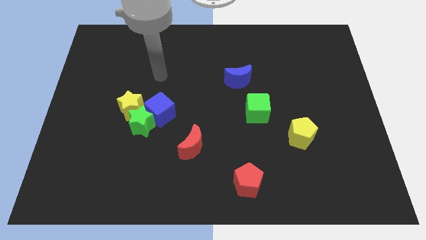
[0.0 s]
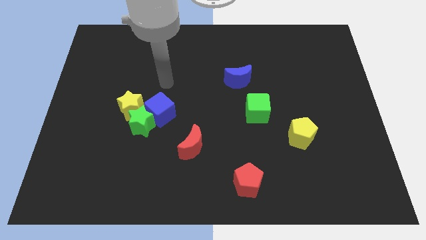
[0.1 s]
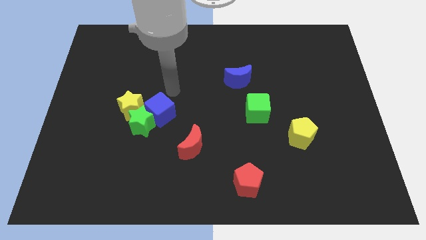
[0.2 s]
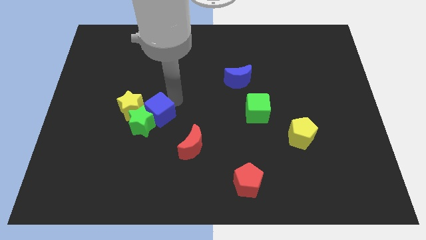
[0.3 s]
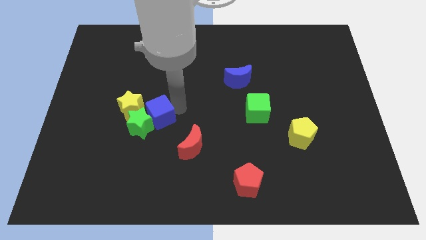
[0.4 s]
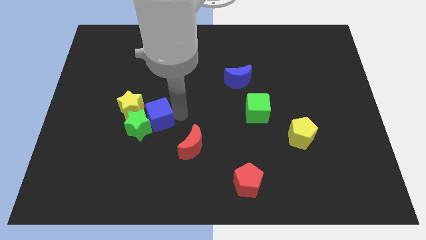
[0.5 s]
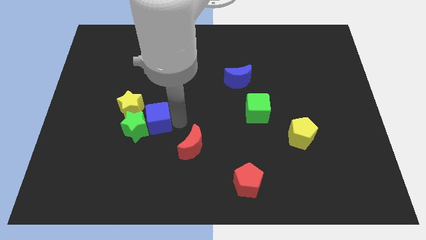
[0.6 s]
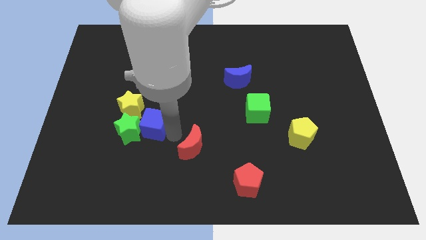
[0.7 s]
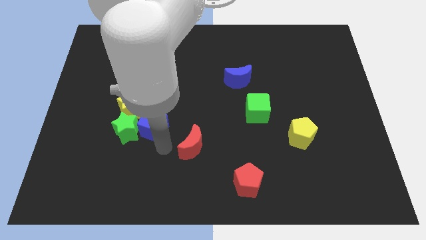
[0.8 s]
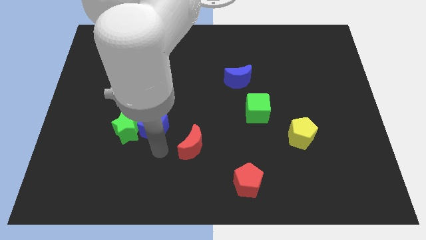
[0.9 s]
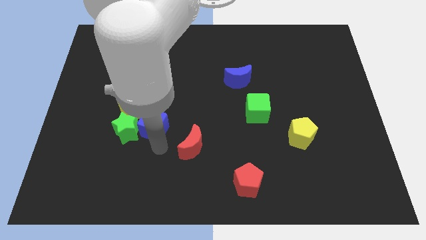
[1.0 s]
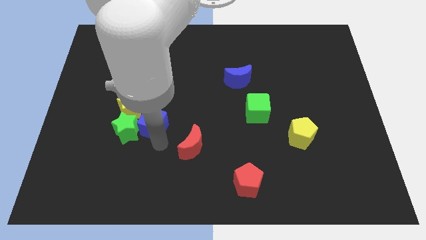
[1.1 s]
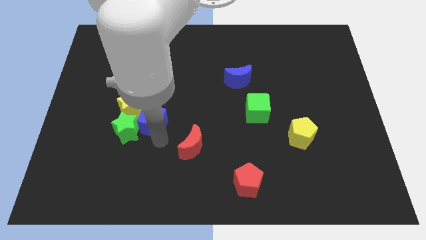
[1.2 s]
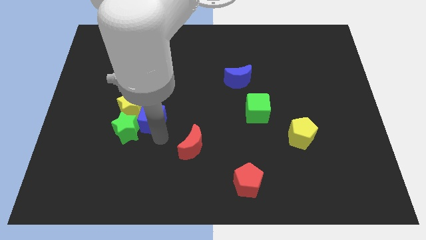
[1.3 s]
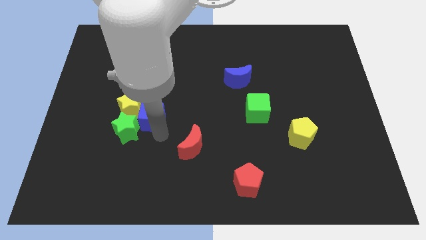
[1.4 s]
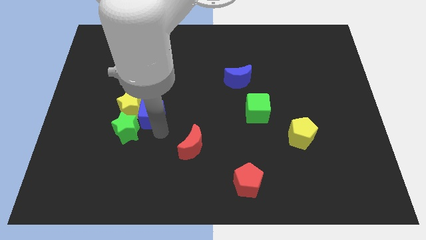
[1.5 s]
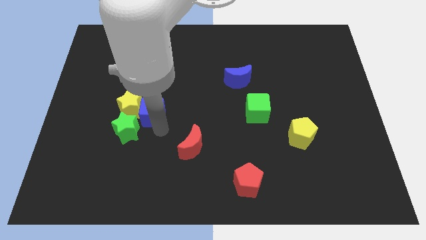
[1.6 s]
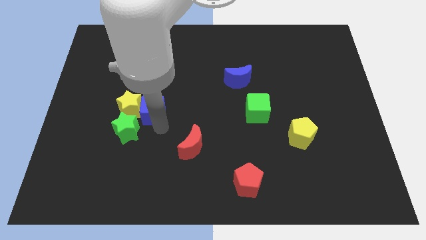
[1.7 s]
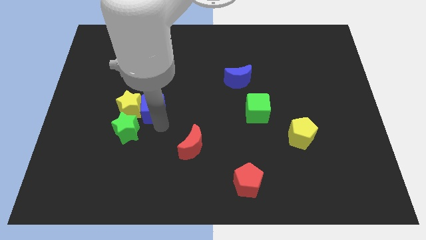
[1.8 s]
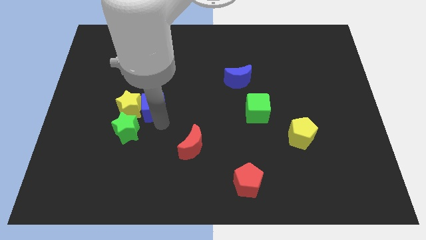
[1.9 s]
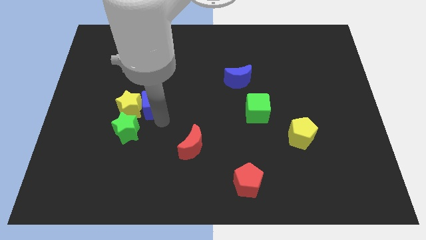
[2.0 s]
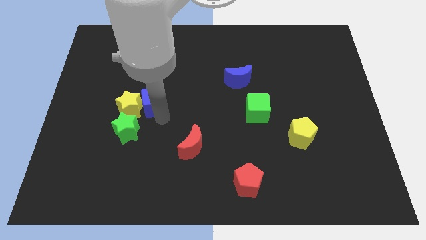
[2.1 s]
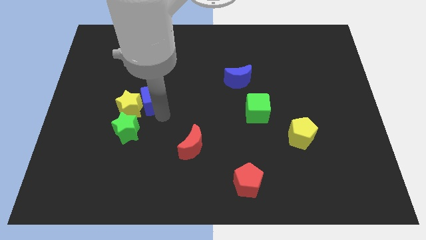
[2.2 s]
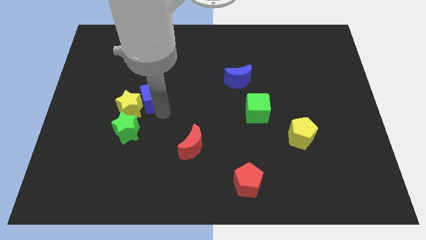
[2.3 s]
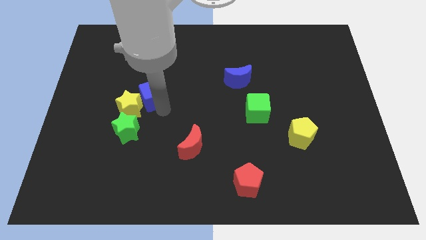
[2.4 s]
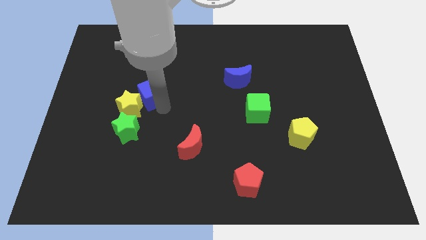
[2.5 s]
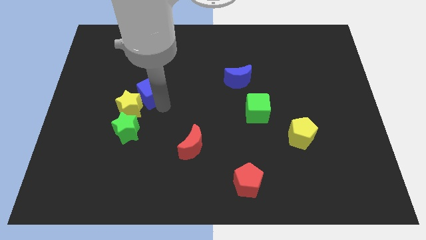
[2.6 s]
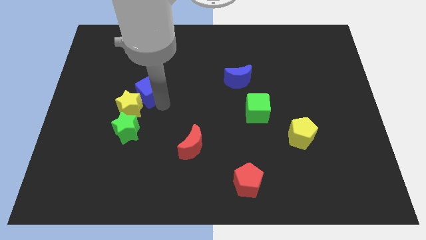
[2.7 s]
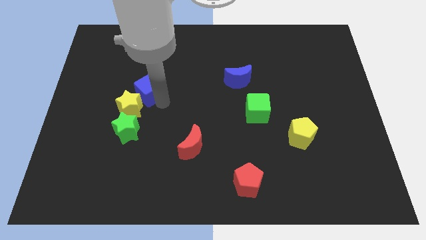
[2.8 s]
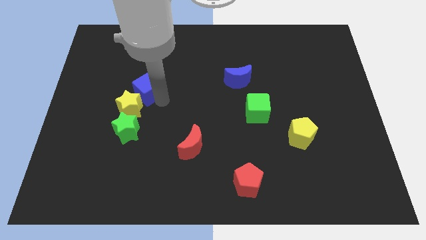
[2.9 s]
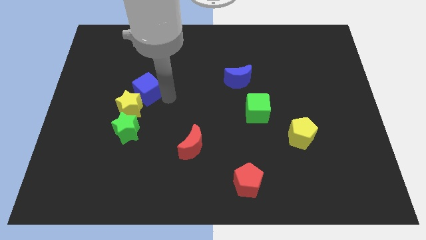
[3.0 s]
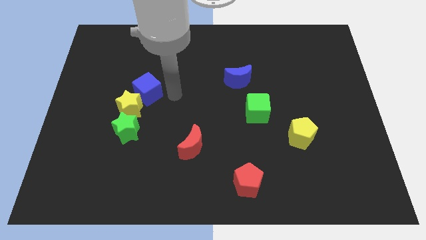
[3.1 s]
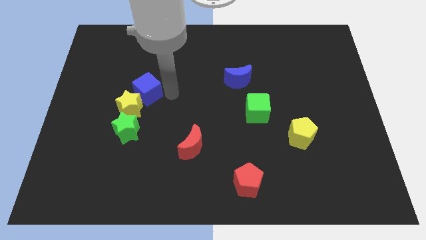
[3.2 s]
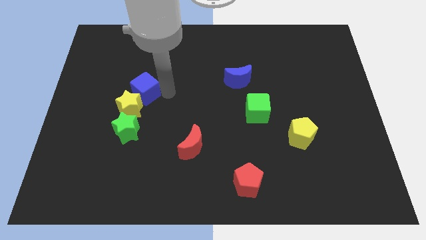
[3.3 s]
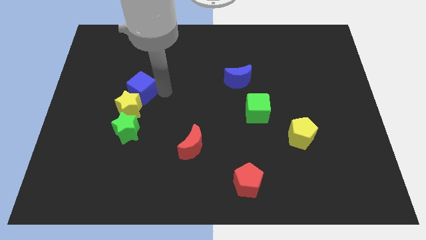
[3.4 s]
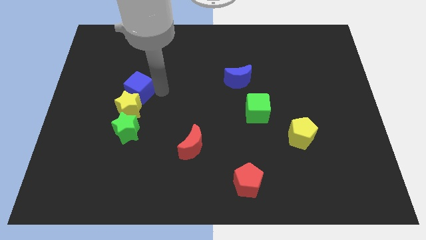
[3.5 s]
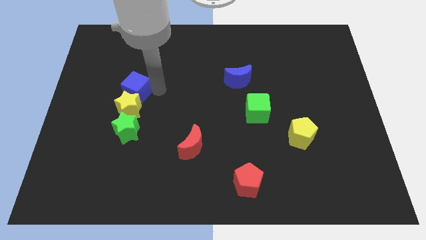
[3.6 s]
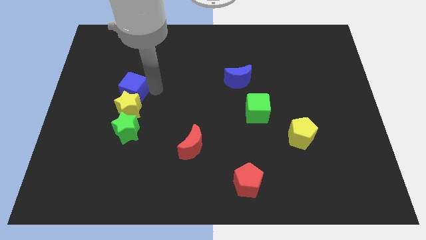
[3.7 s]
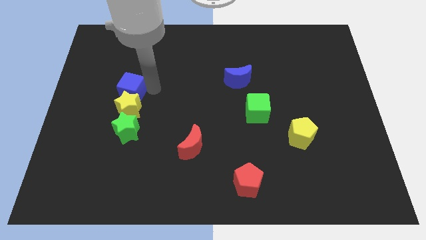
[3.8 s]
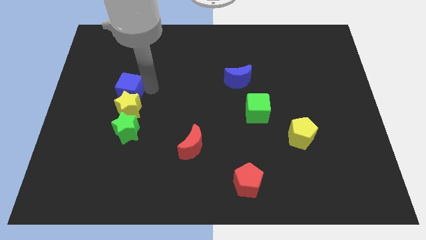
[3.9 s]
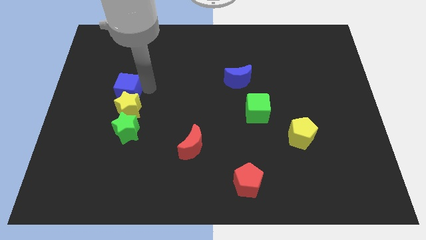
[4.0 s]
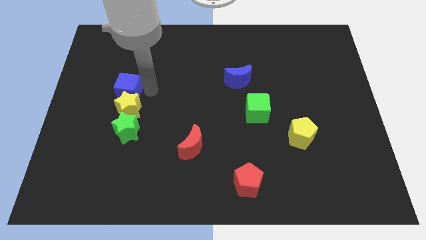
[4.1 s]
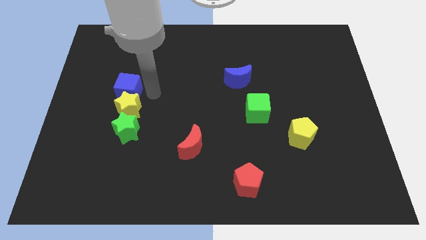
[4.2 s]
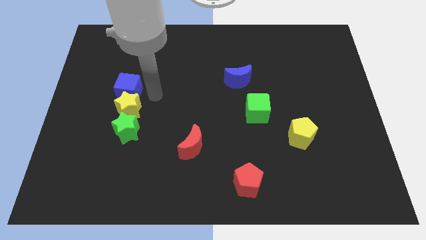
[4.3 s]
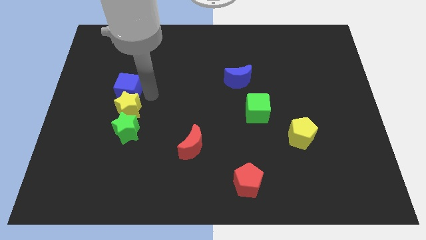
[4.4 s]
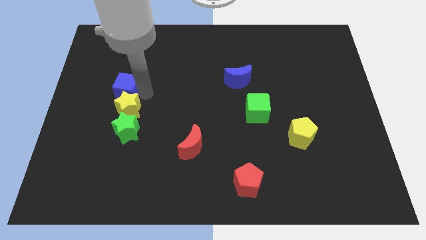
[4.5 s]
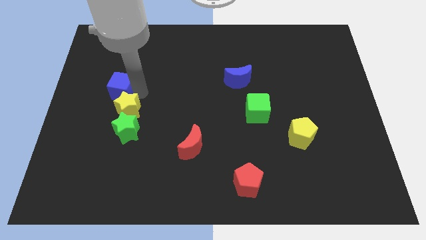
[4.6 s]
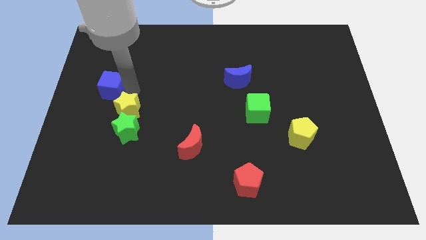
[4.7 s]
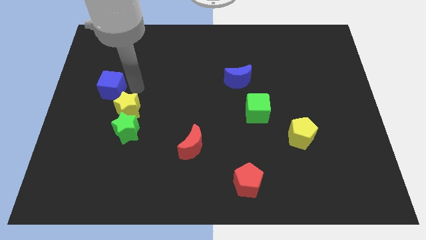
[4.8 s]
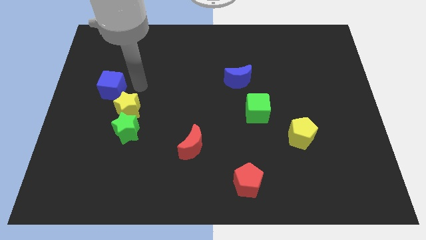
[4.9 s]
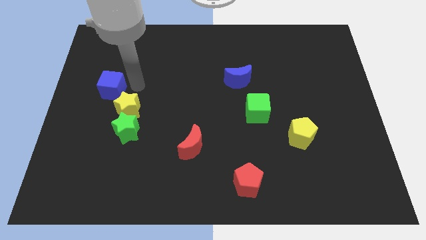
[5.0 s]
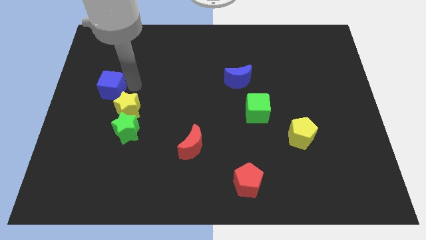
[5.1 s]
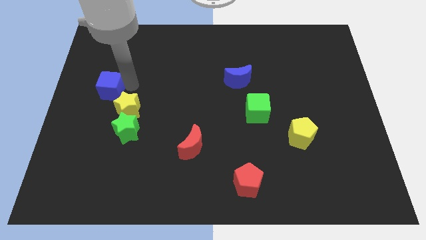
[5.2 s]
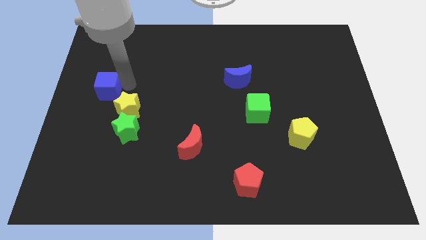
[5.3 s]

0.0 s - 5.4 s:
move the blue cube to the left side of the board

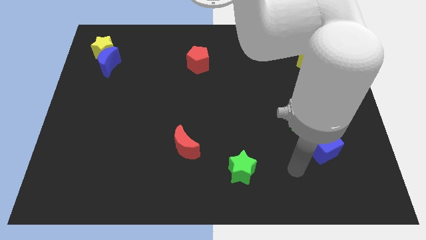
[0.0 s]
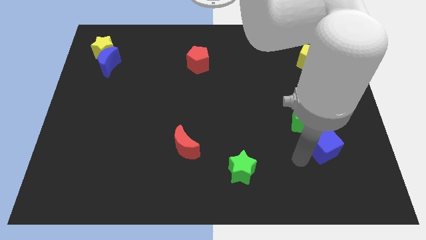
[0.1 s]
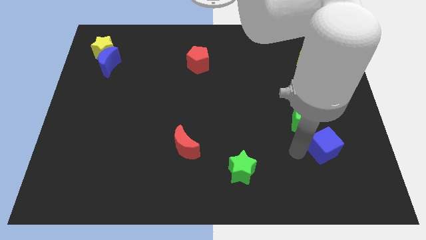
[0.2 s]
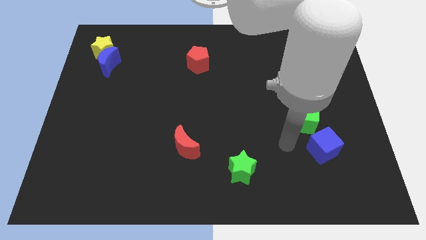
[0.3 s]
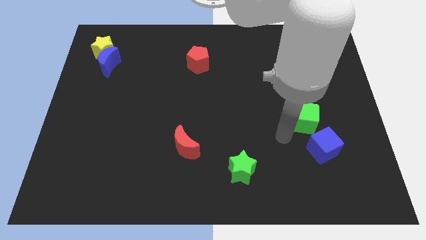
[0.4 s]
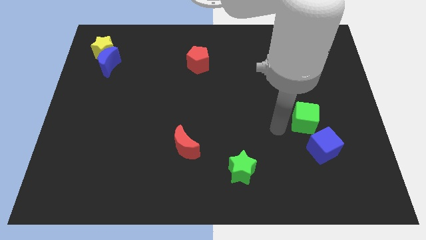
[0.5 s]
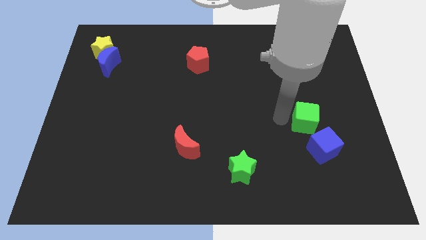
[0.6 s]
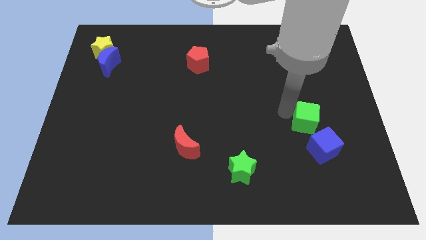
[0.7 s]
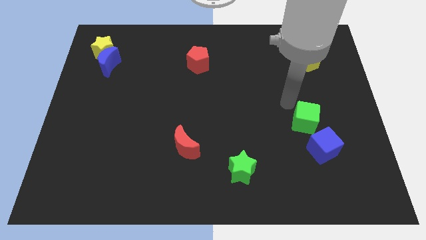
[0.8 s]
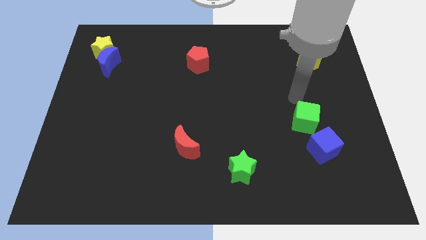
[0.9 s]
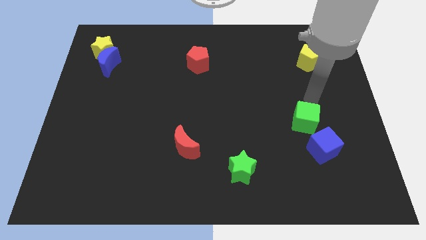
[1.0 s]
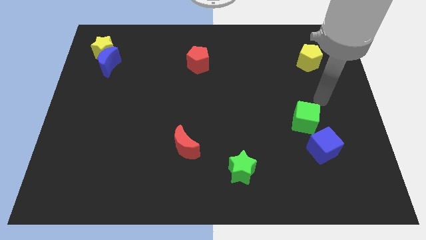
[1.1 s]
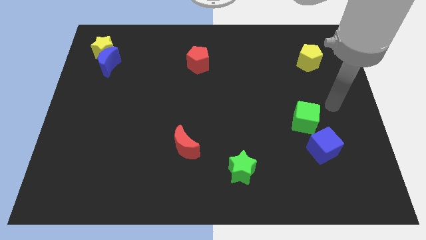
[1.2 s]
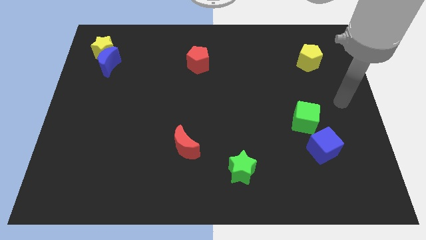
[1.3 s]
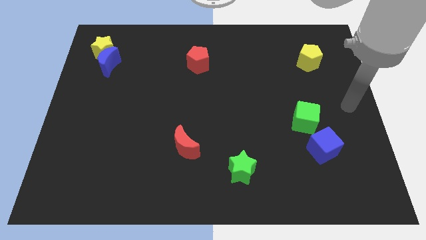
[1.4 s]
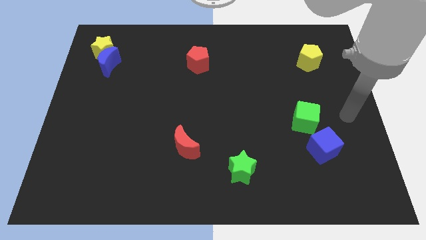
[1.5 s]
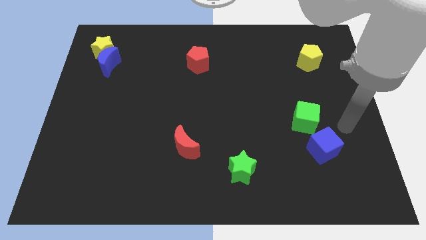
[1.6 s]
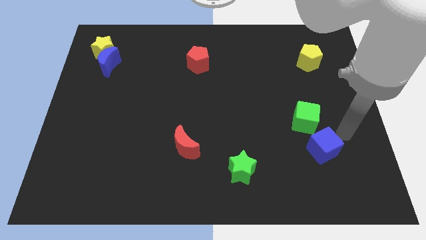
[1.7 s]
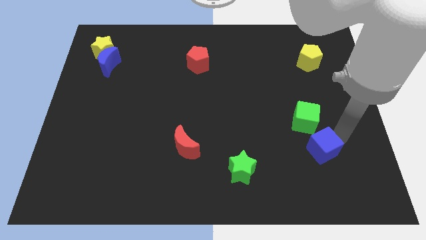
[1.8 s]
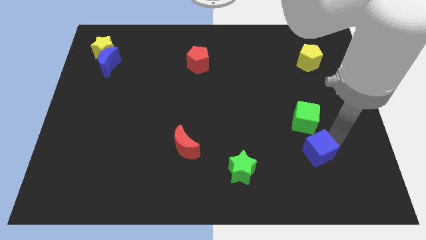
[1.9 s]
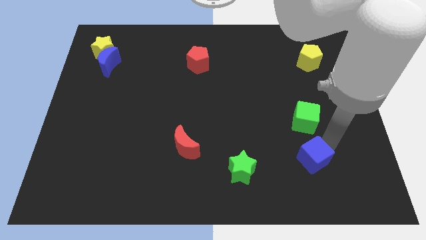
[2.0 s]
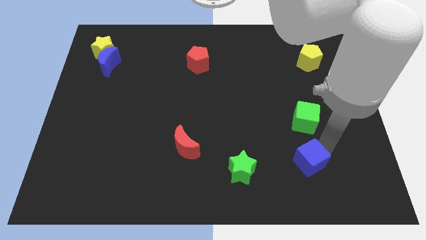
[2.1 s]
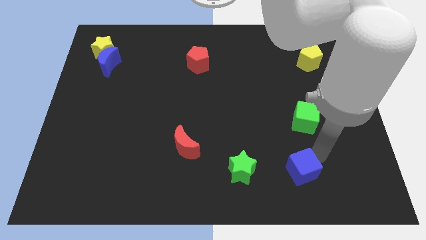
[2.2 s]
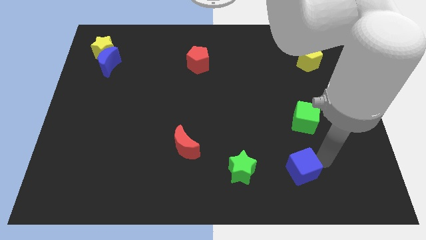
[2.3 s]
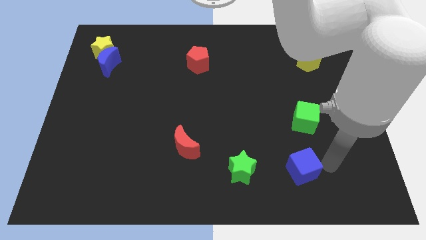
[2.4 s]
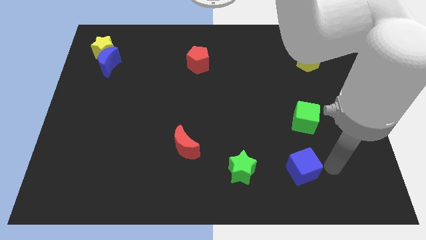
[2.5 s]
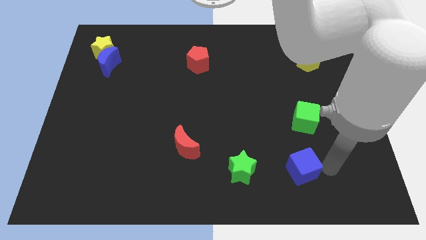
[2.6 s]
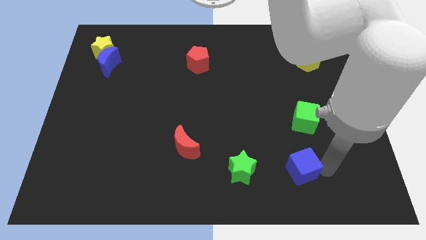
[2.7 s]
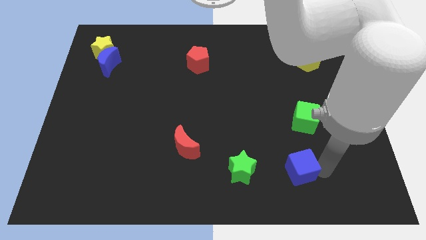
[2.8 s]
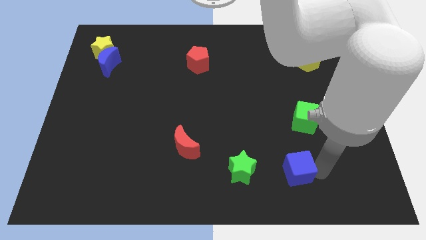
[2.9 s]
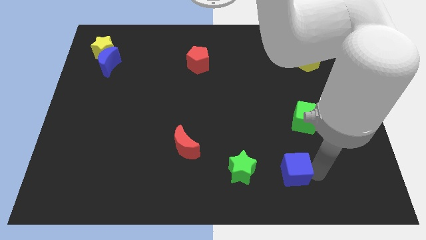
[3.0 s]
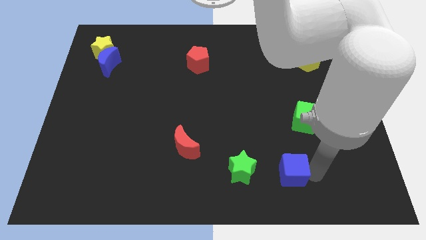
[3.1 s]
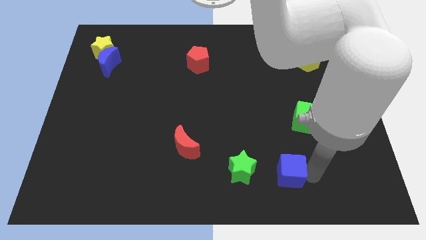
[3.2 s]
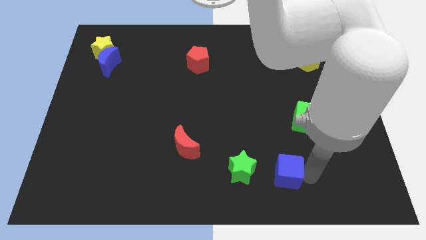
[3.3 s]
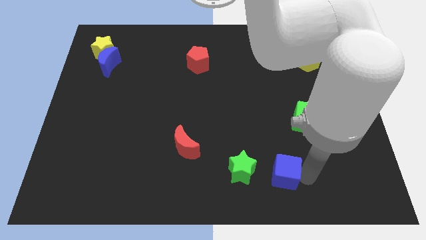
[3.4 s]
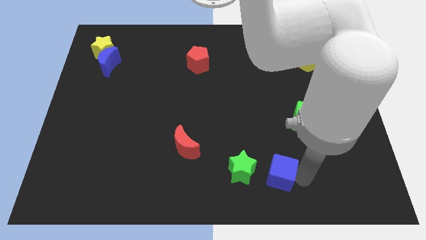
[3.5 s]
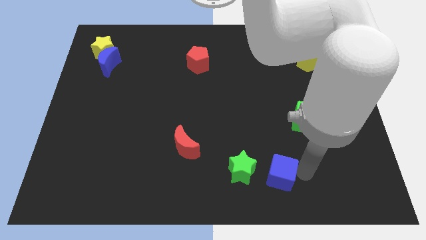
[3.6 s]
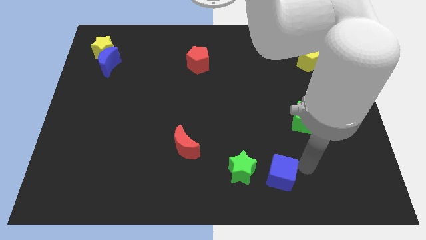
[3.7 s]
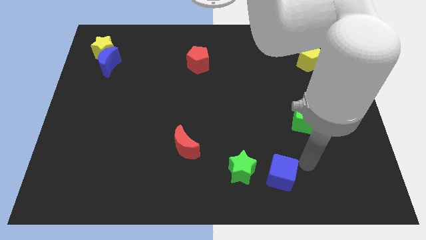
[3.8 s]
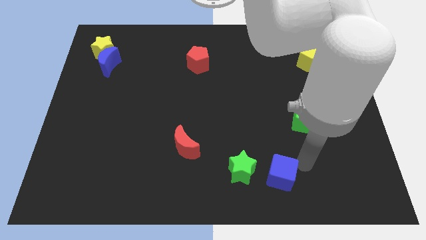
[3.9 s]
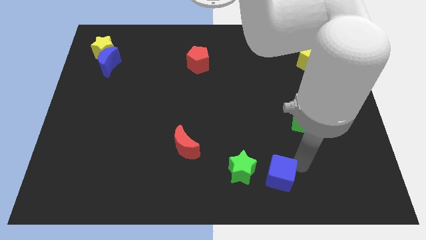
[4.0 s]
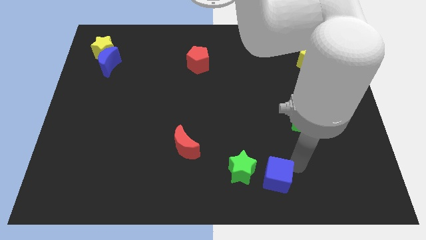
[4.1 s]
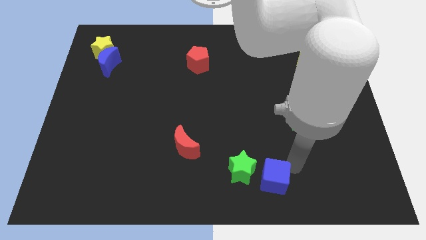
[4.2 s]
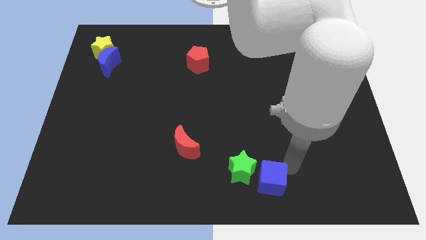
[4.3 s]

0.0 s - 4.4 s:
slide the blue cube to the bottom side
